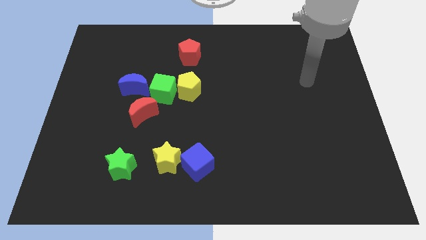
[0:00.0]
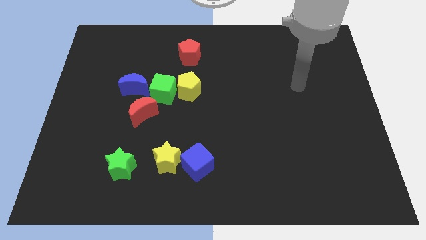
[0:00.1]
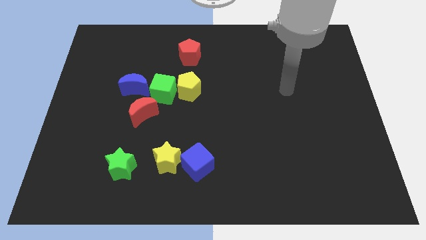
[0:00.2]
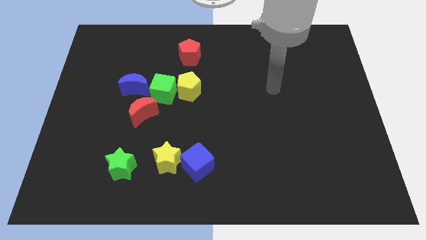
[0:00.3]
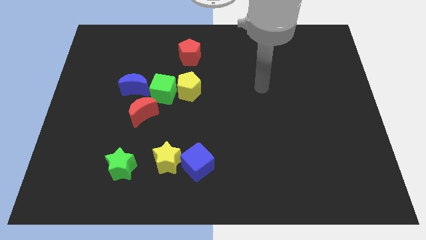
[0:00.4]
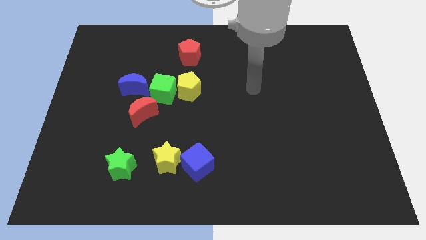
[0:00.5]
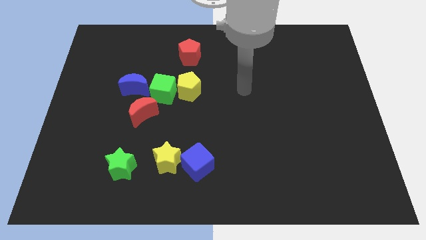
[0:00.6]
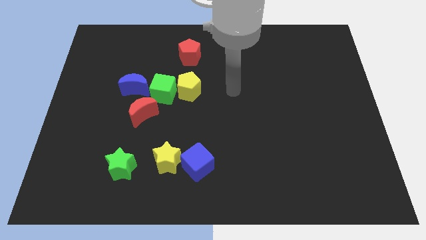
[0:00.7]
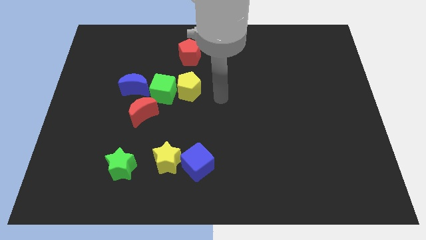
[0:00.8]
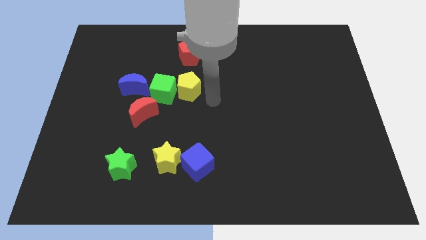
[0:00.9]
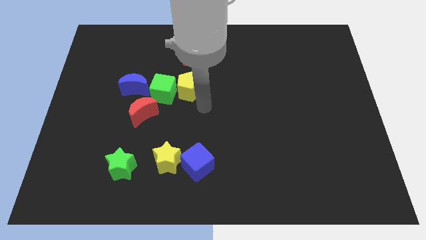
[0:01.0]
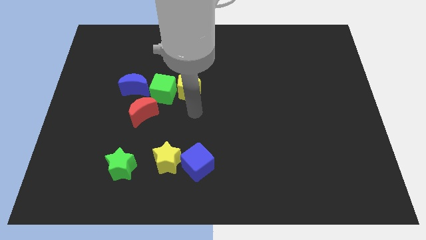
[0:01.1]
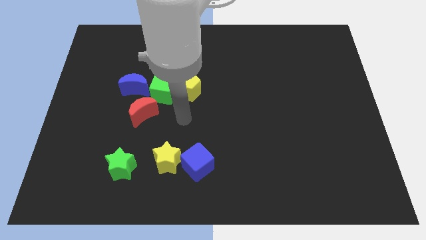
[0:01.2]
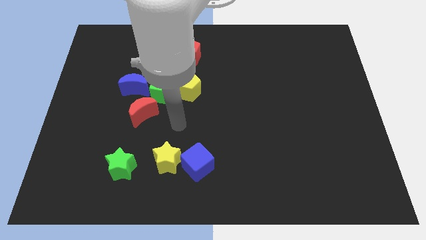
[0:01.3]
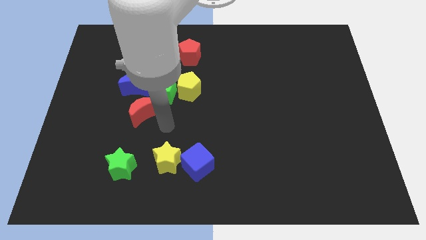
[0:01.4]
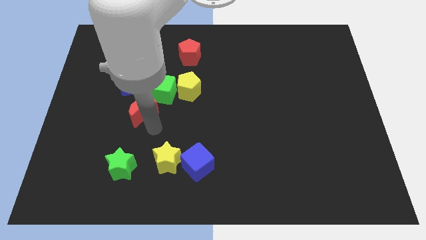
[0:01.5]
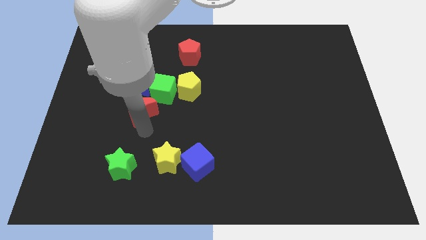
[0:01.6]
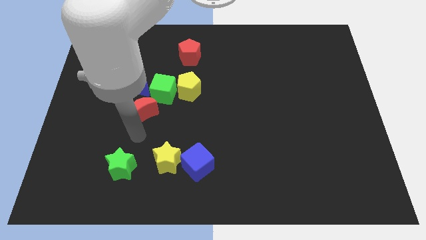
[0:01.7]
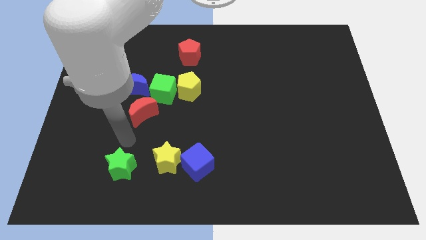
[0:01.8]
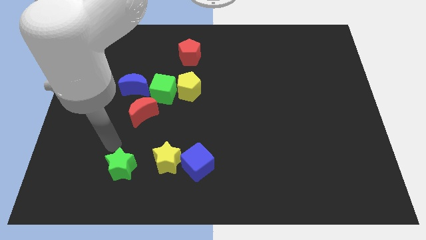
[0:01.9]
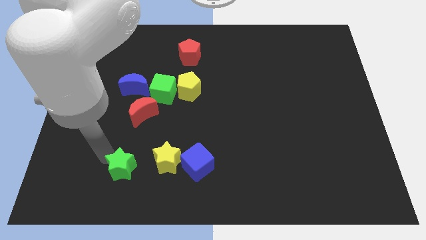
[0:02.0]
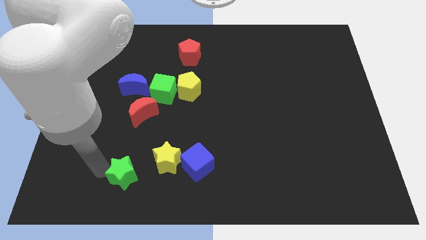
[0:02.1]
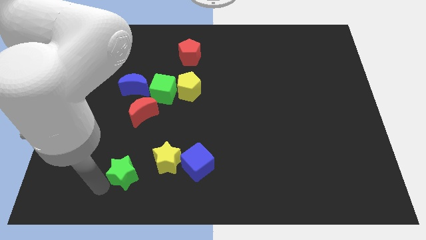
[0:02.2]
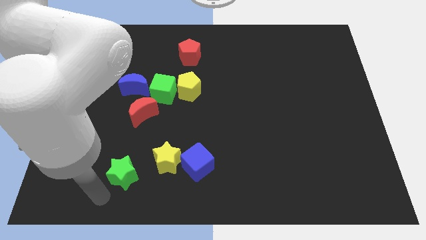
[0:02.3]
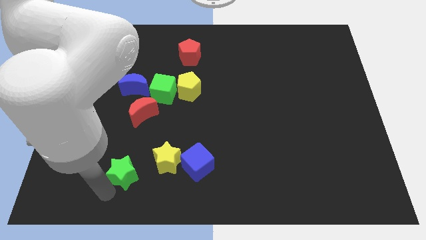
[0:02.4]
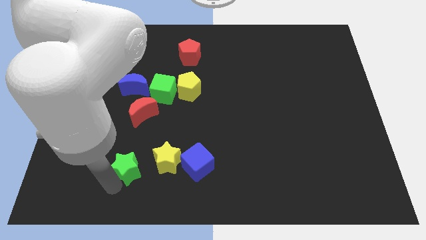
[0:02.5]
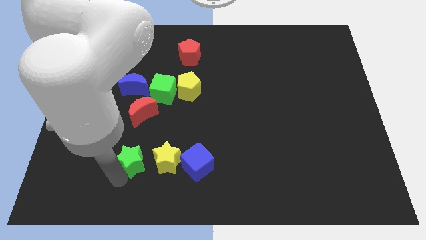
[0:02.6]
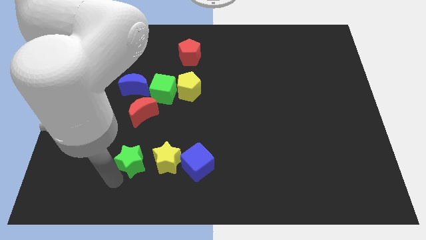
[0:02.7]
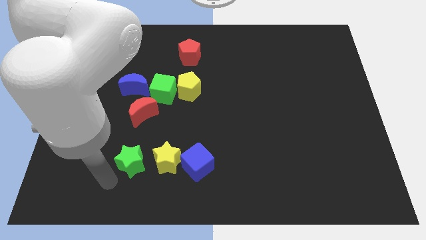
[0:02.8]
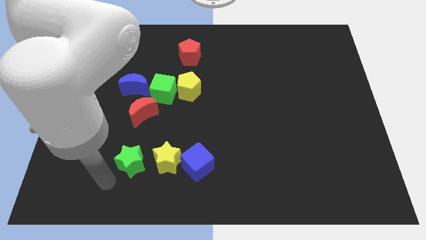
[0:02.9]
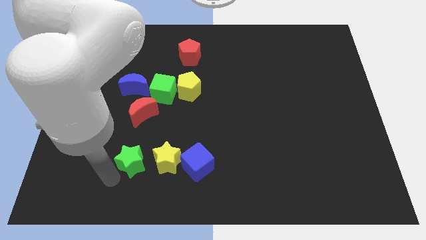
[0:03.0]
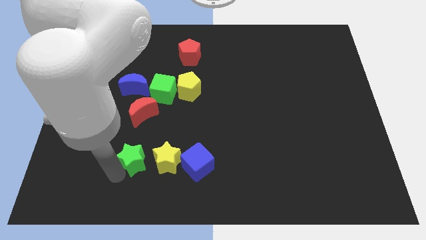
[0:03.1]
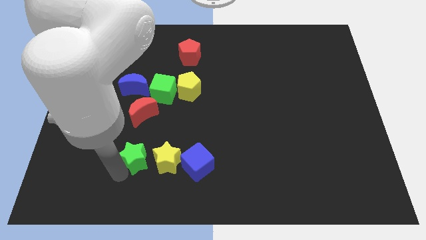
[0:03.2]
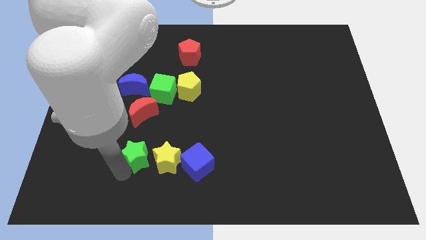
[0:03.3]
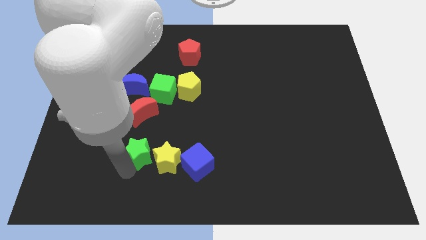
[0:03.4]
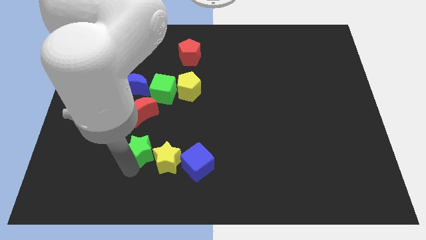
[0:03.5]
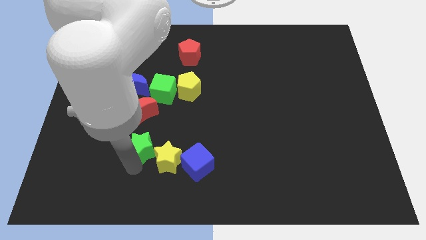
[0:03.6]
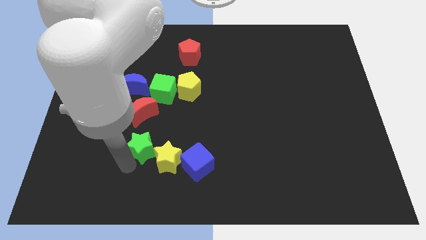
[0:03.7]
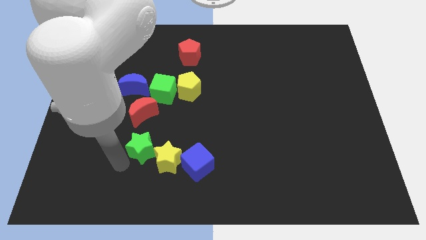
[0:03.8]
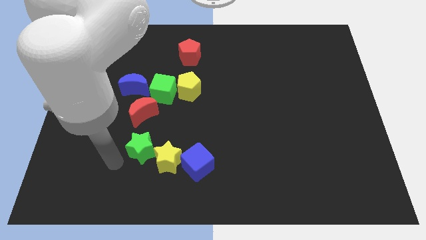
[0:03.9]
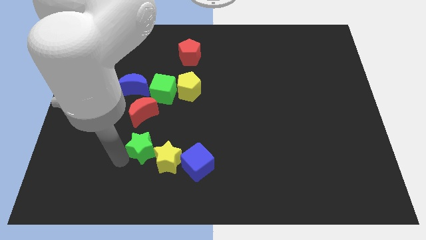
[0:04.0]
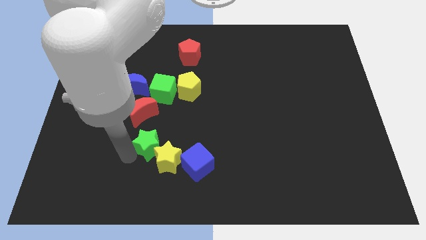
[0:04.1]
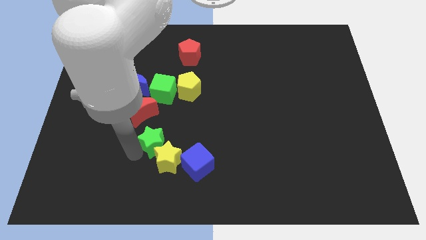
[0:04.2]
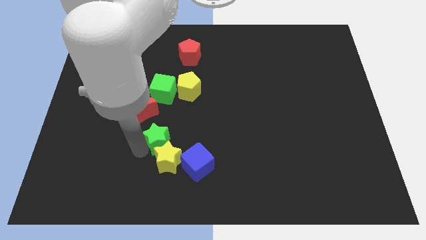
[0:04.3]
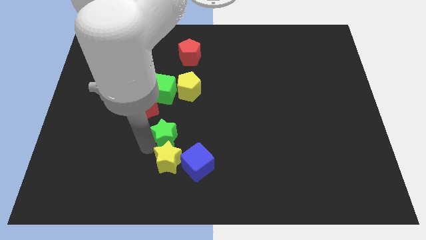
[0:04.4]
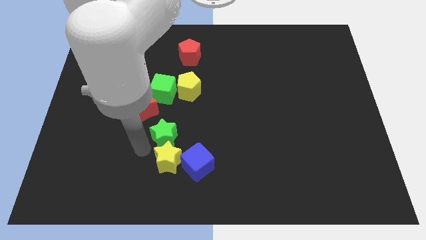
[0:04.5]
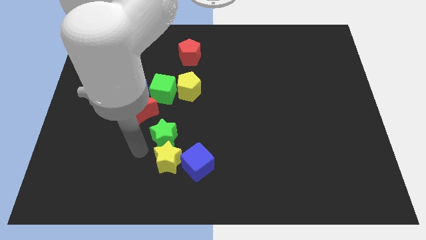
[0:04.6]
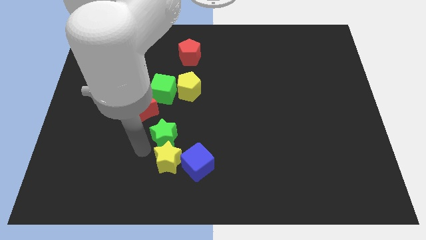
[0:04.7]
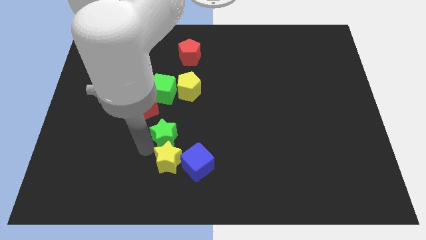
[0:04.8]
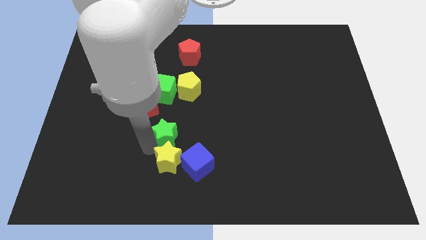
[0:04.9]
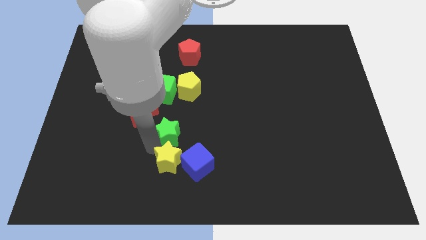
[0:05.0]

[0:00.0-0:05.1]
push the green star to the bottom side of the yellow pentagon

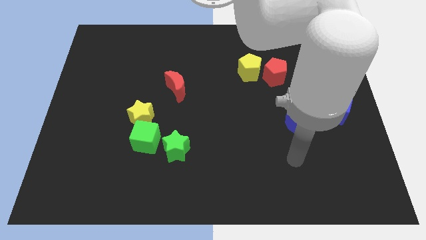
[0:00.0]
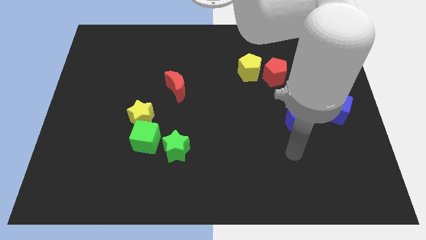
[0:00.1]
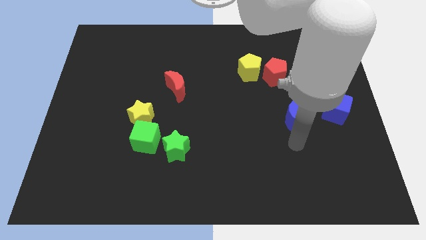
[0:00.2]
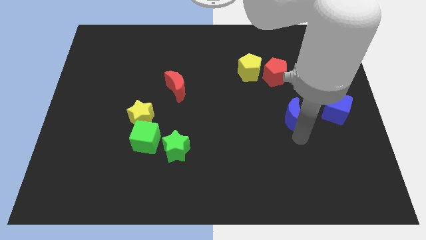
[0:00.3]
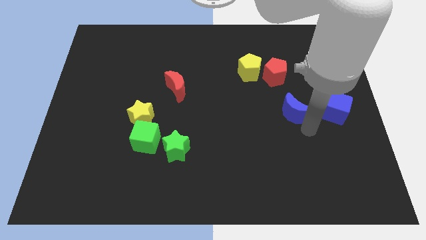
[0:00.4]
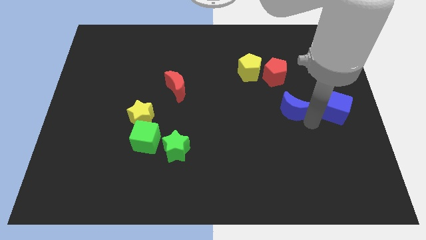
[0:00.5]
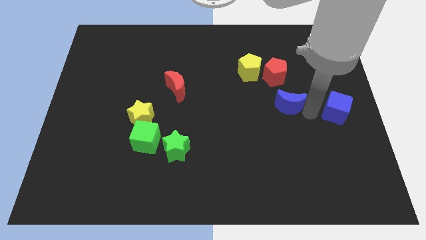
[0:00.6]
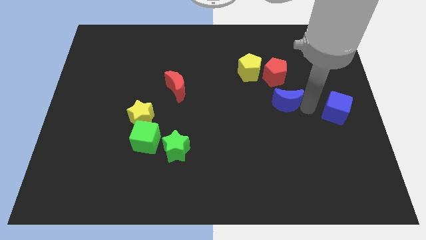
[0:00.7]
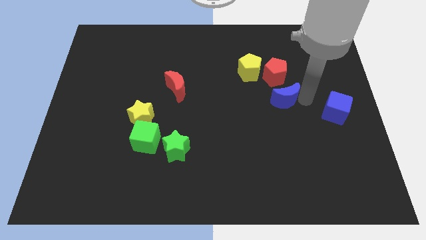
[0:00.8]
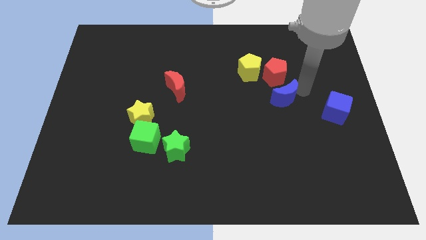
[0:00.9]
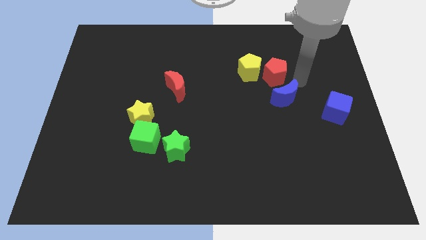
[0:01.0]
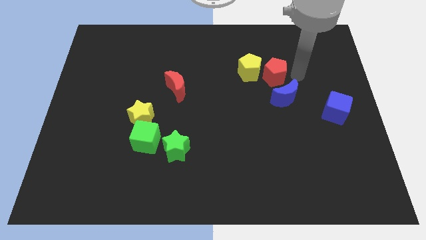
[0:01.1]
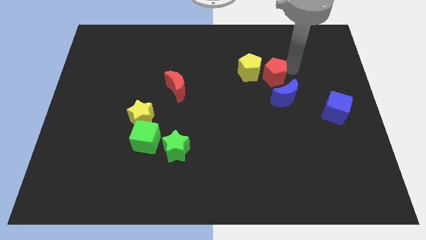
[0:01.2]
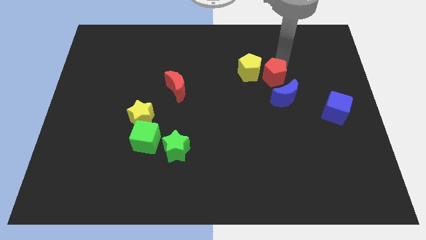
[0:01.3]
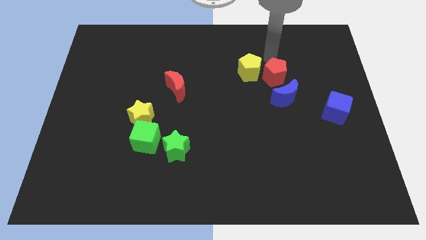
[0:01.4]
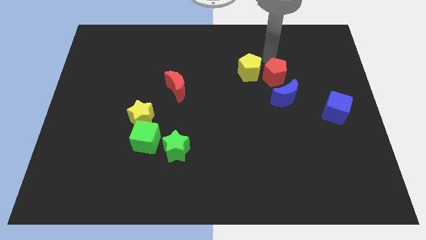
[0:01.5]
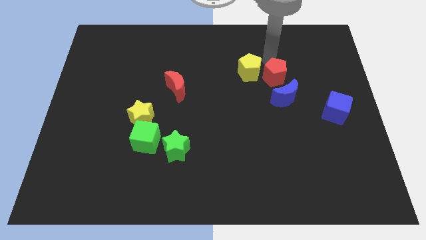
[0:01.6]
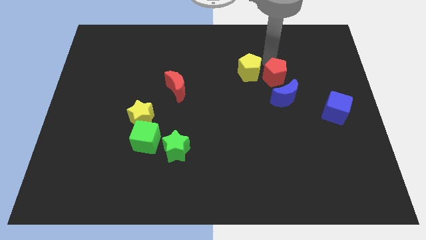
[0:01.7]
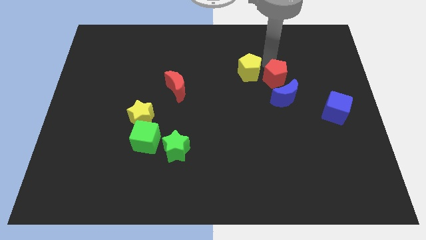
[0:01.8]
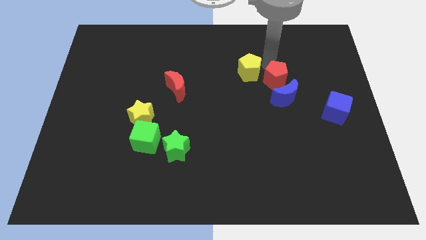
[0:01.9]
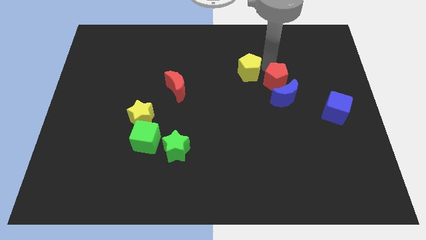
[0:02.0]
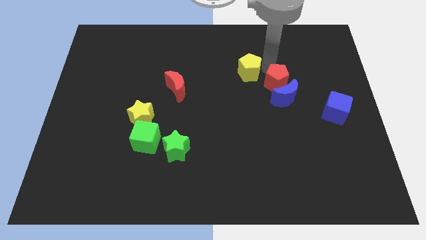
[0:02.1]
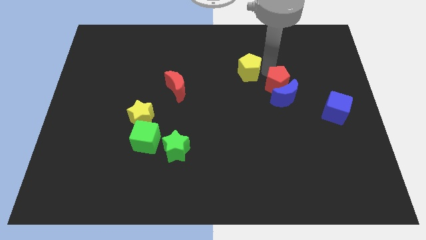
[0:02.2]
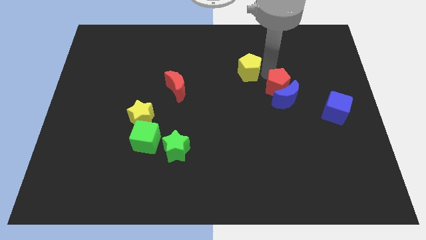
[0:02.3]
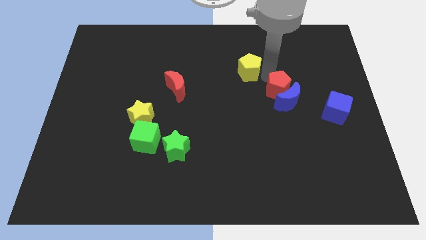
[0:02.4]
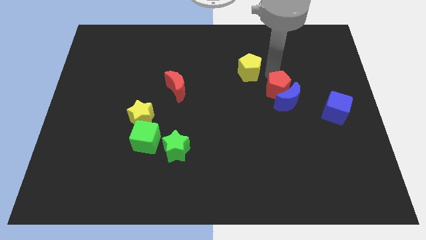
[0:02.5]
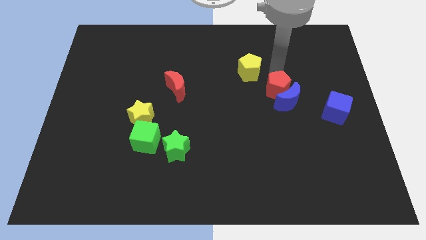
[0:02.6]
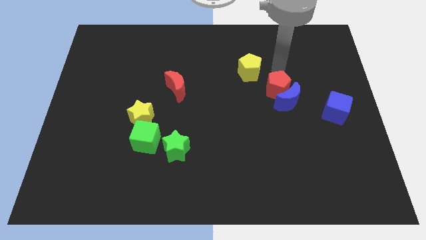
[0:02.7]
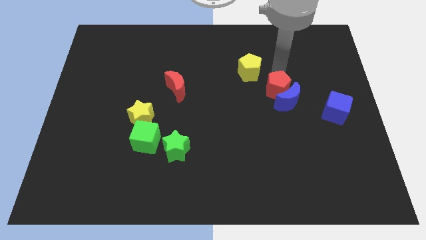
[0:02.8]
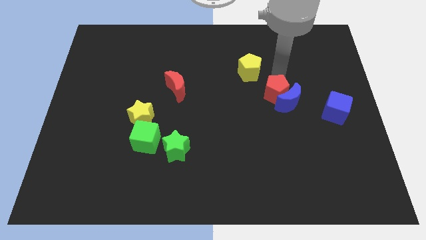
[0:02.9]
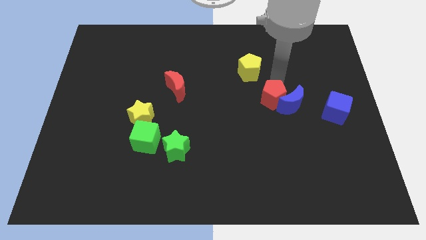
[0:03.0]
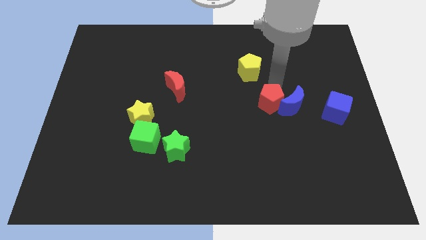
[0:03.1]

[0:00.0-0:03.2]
slide the red pentagon diagonally down and to the left of the blue moon
